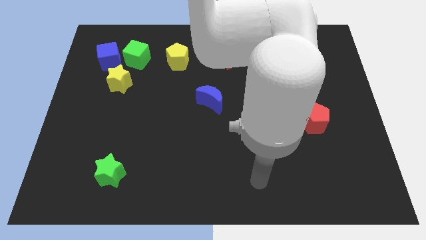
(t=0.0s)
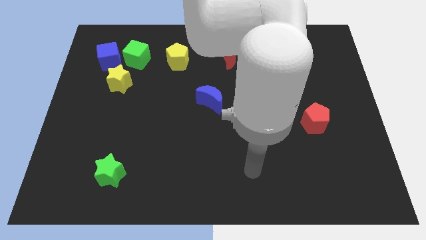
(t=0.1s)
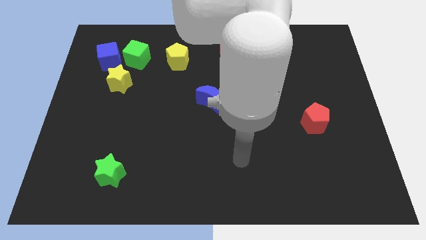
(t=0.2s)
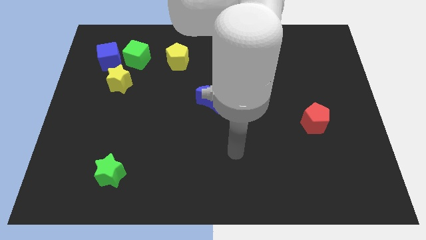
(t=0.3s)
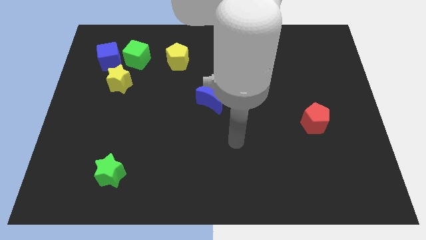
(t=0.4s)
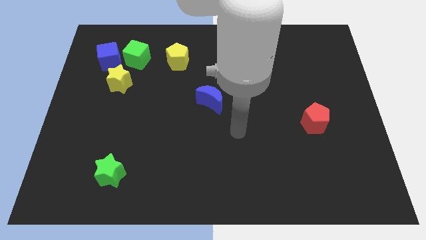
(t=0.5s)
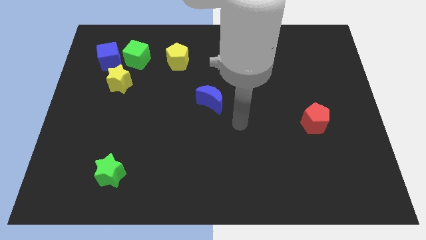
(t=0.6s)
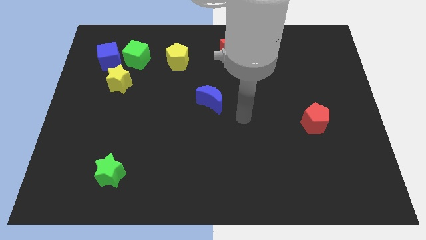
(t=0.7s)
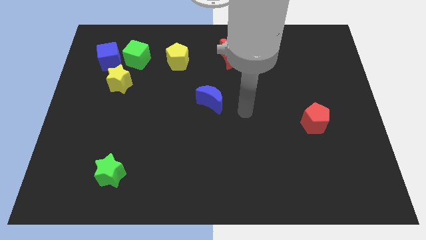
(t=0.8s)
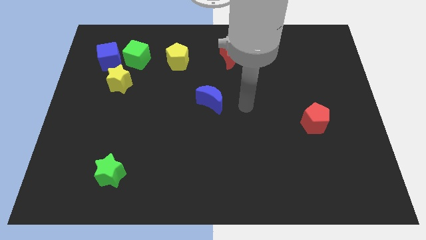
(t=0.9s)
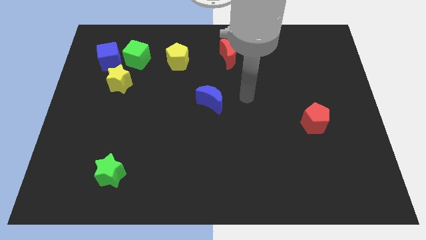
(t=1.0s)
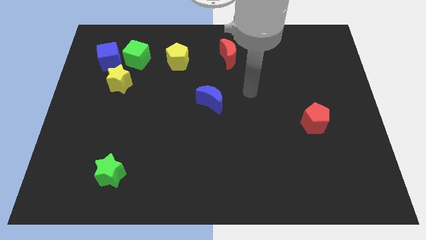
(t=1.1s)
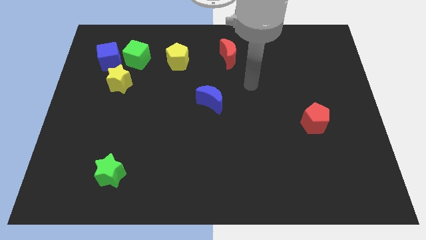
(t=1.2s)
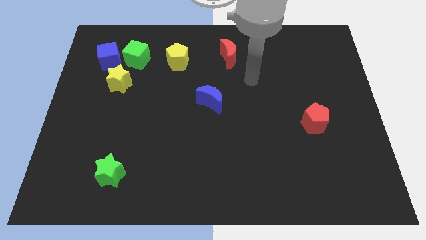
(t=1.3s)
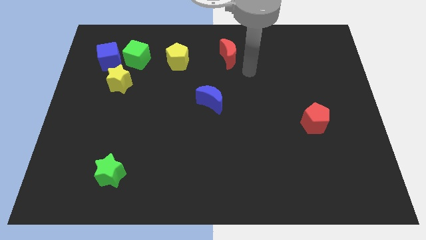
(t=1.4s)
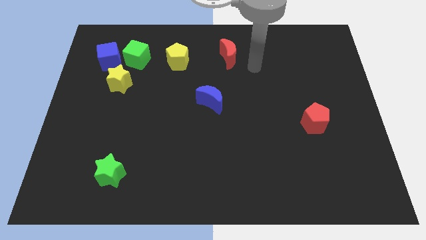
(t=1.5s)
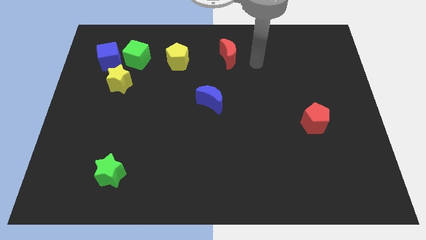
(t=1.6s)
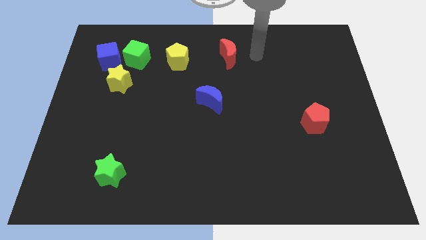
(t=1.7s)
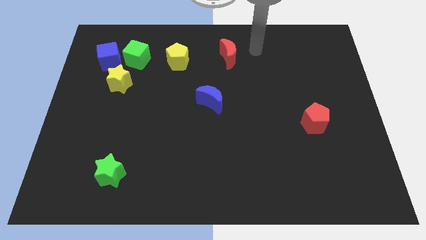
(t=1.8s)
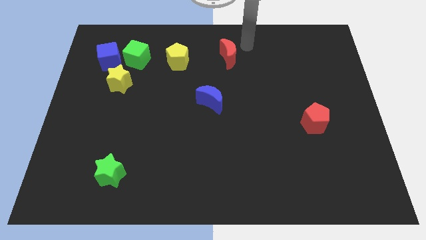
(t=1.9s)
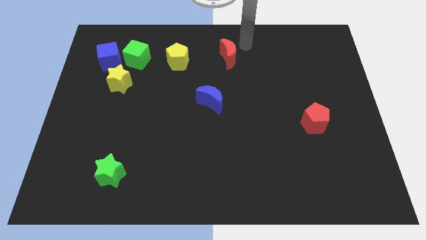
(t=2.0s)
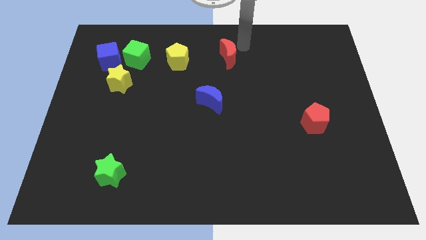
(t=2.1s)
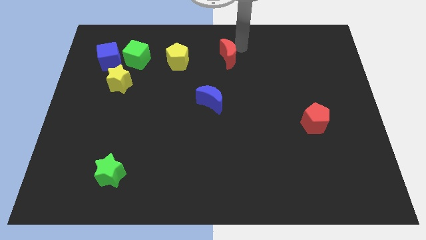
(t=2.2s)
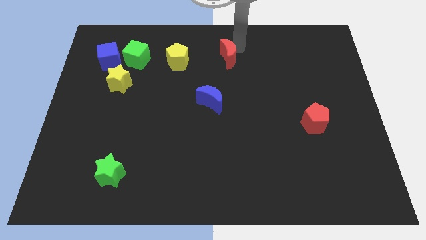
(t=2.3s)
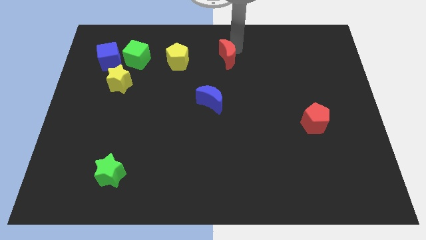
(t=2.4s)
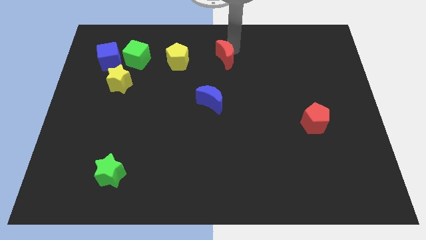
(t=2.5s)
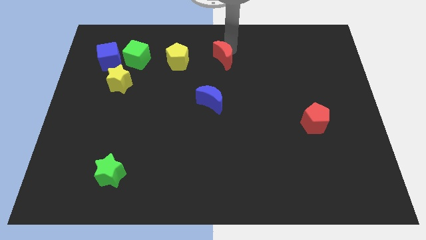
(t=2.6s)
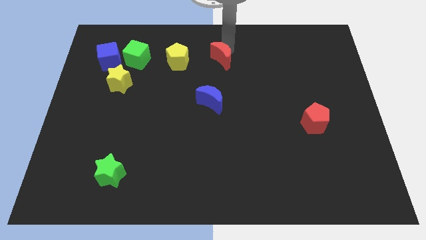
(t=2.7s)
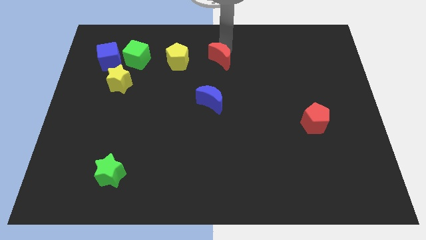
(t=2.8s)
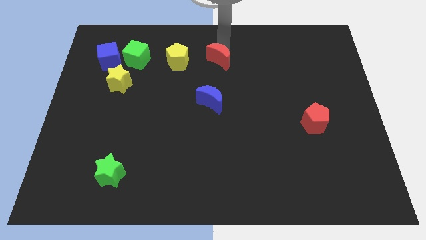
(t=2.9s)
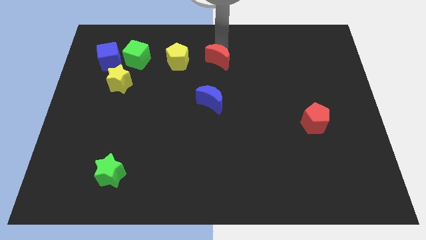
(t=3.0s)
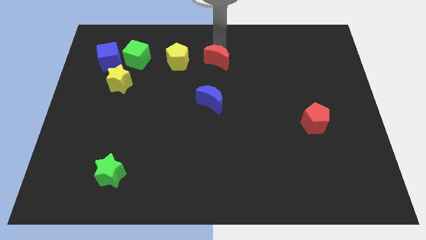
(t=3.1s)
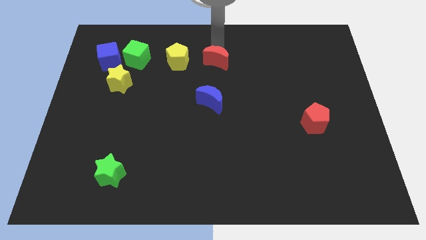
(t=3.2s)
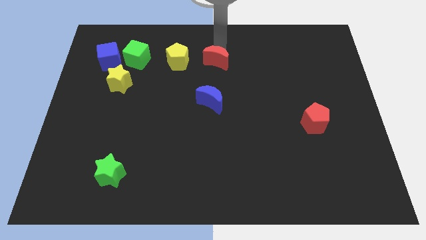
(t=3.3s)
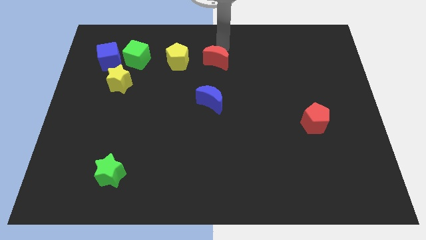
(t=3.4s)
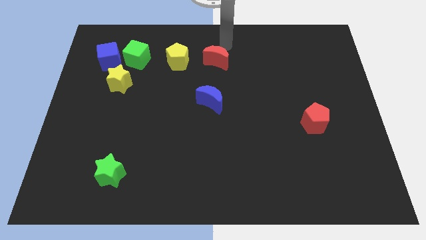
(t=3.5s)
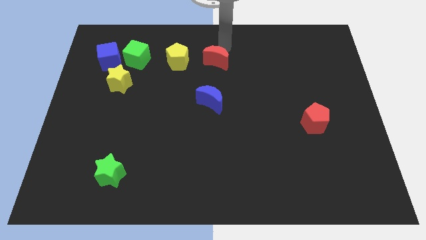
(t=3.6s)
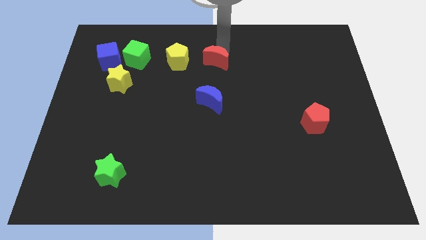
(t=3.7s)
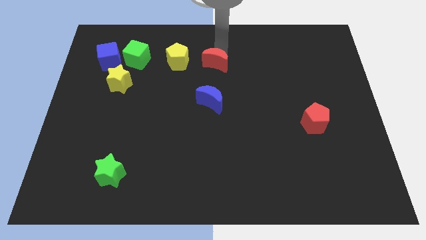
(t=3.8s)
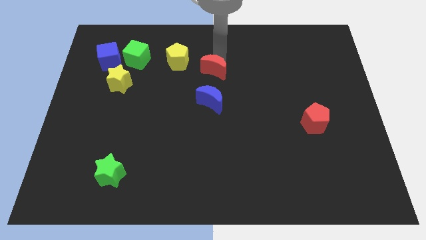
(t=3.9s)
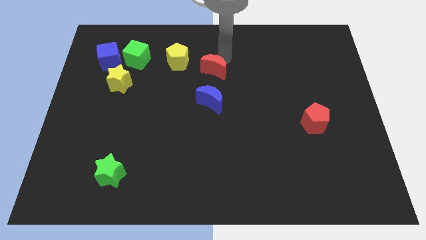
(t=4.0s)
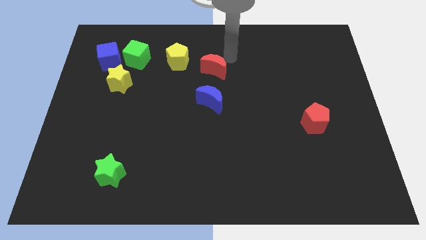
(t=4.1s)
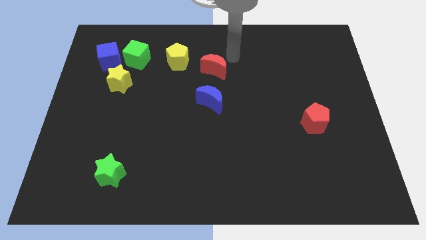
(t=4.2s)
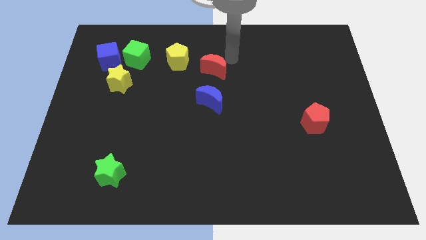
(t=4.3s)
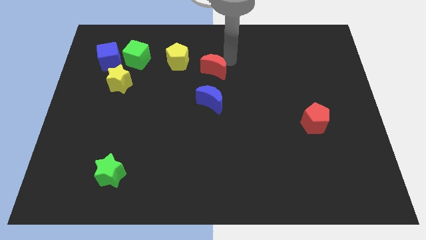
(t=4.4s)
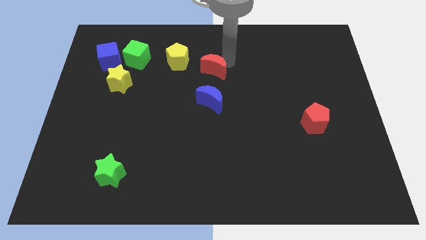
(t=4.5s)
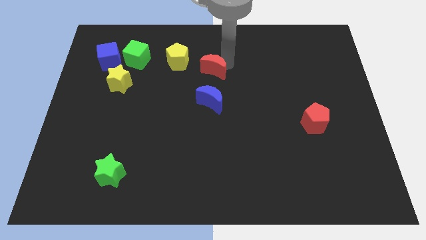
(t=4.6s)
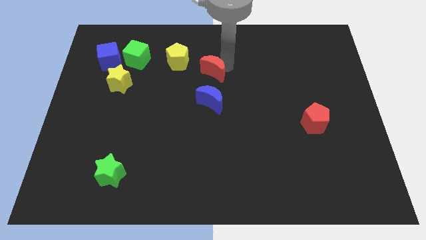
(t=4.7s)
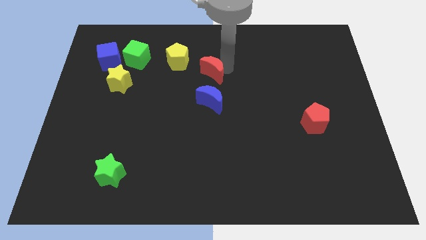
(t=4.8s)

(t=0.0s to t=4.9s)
move the red moon a bit down and then to the left

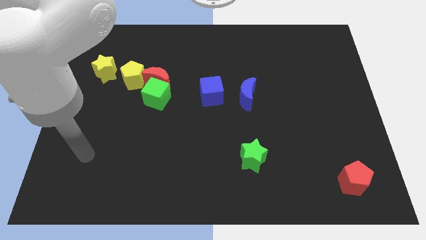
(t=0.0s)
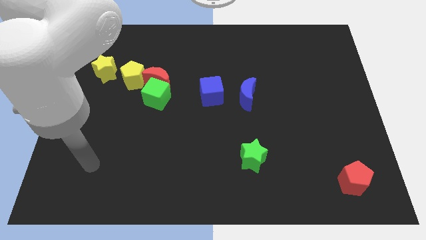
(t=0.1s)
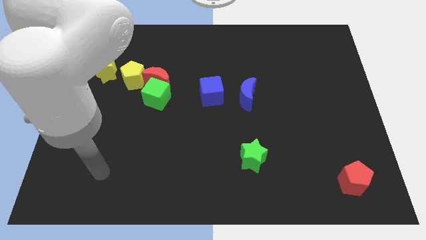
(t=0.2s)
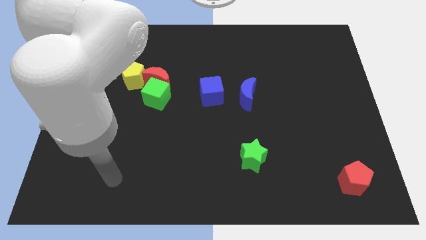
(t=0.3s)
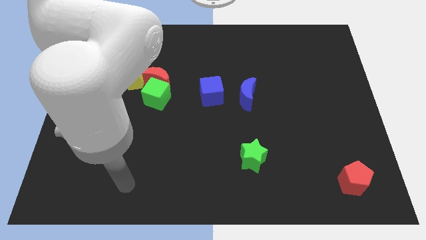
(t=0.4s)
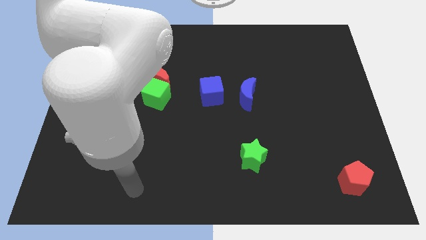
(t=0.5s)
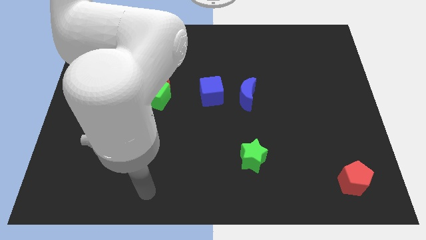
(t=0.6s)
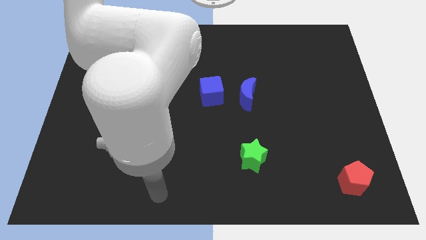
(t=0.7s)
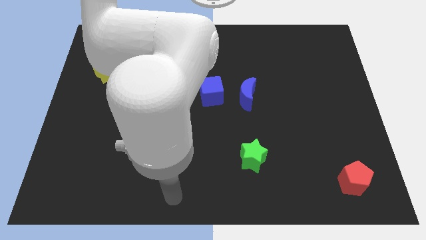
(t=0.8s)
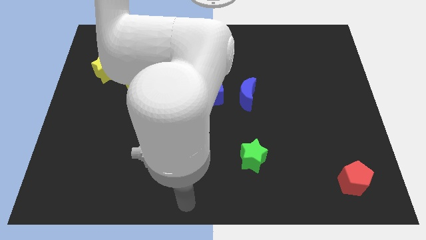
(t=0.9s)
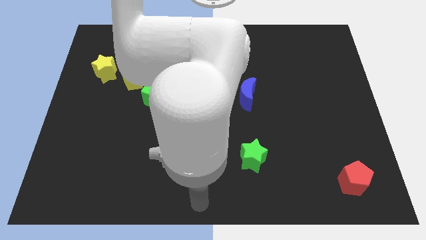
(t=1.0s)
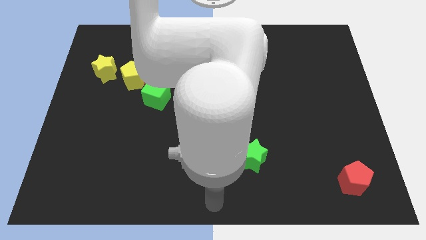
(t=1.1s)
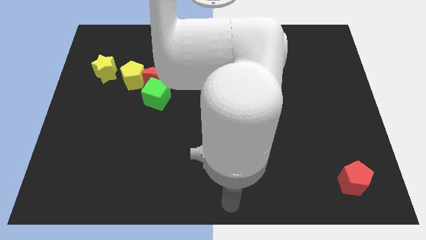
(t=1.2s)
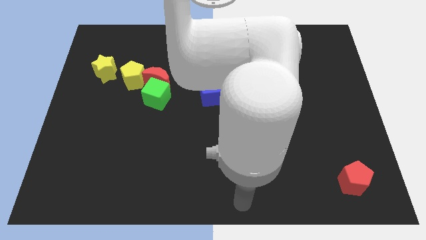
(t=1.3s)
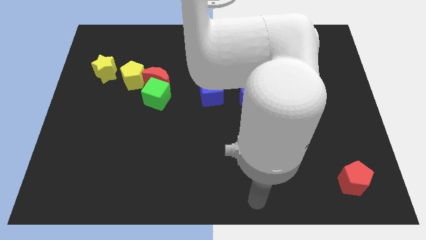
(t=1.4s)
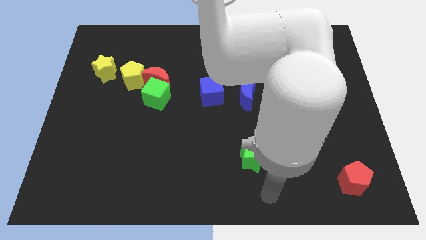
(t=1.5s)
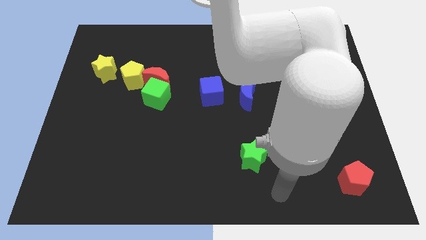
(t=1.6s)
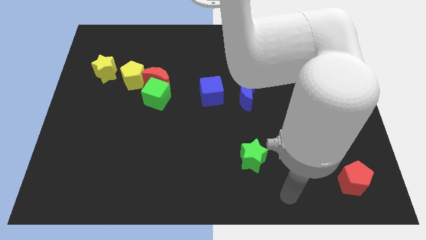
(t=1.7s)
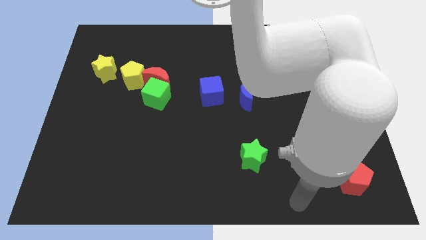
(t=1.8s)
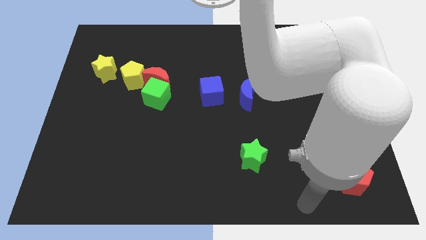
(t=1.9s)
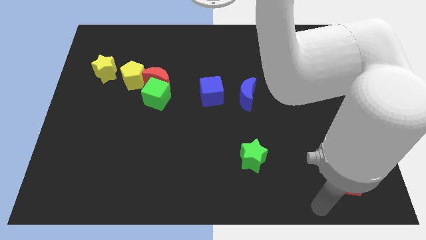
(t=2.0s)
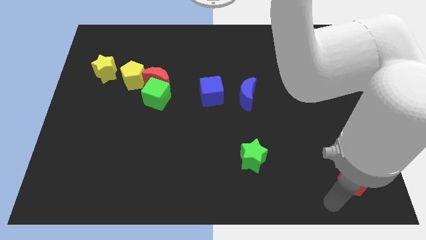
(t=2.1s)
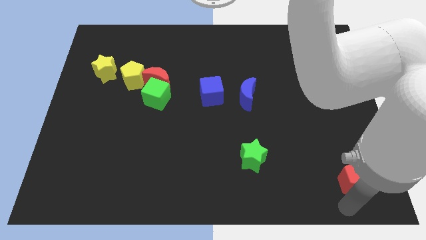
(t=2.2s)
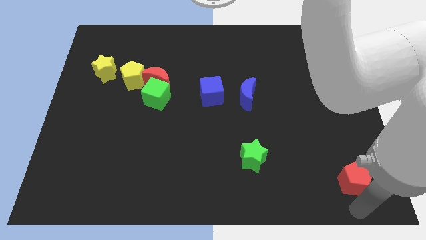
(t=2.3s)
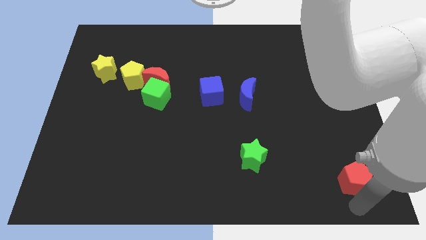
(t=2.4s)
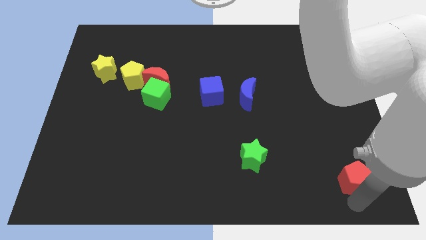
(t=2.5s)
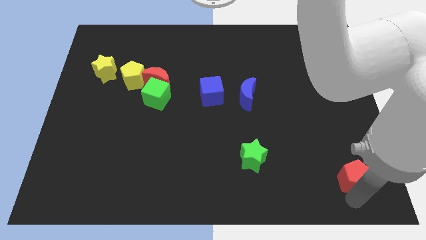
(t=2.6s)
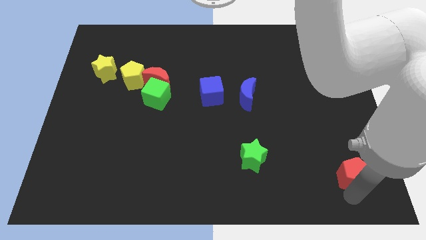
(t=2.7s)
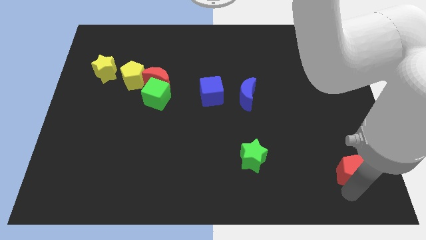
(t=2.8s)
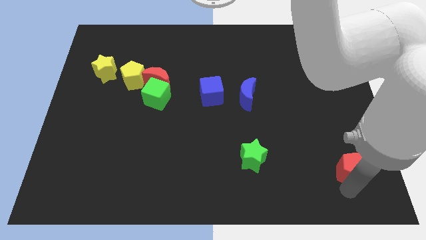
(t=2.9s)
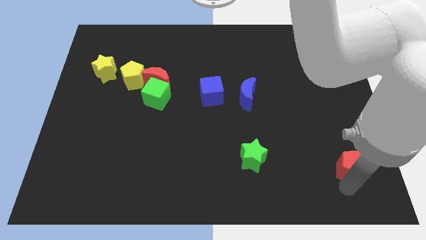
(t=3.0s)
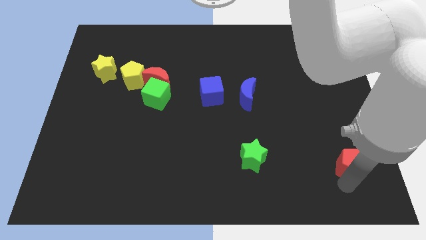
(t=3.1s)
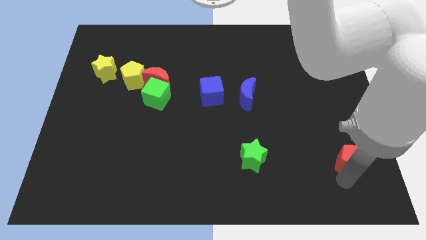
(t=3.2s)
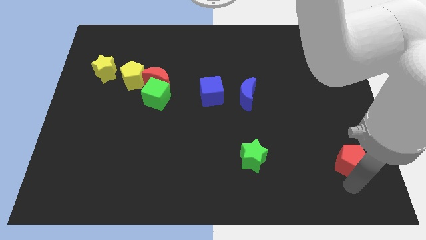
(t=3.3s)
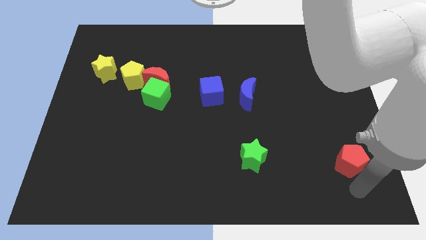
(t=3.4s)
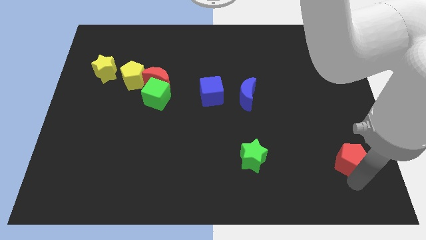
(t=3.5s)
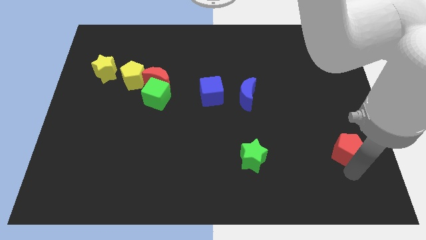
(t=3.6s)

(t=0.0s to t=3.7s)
push the red pentagon up a little bit
